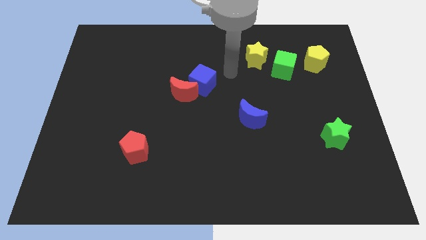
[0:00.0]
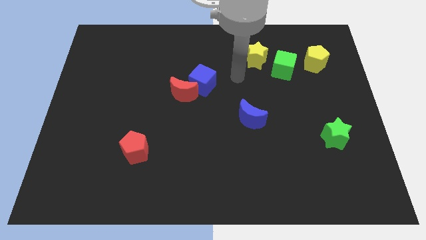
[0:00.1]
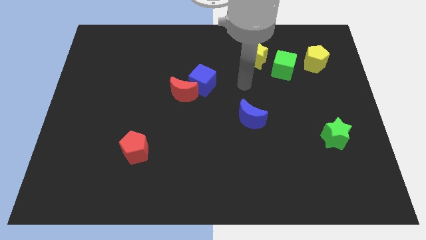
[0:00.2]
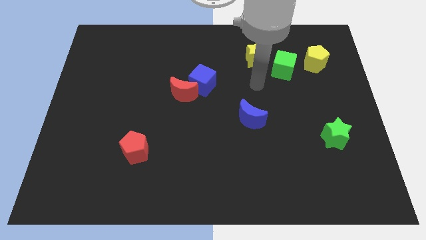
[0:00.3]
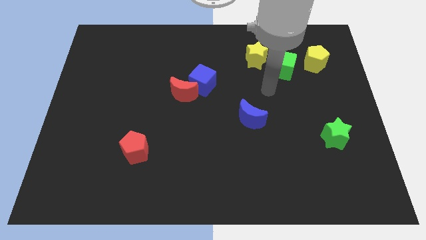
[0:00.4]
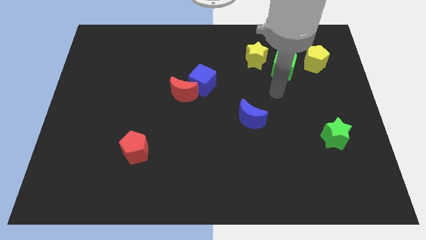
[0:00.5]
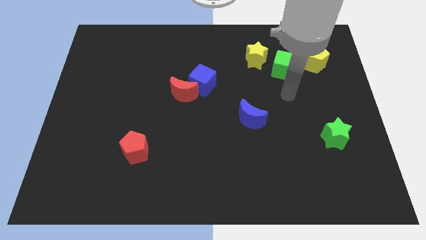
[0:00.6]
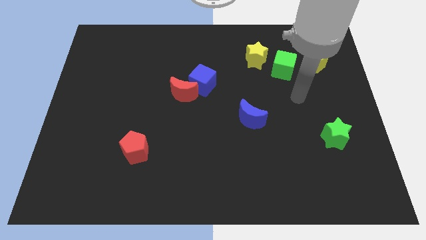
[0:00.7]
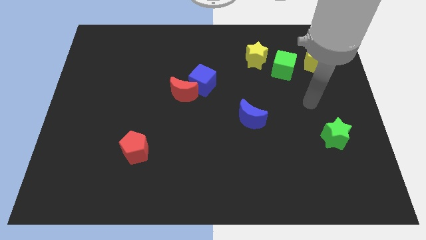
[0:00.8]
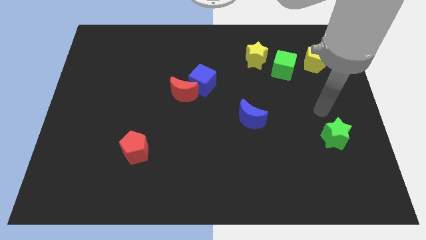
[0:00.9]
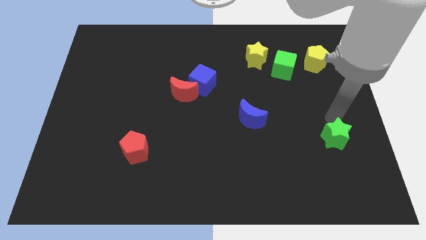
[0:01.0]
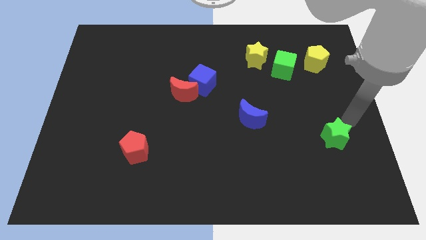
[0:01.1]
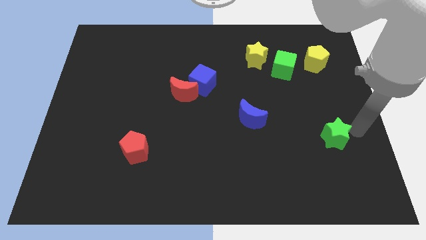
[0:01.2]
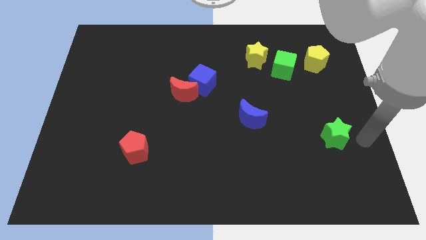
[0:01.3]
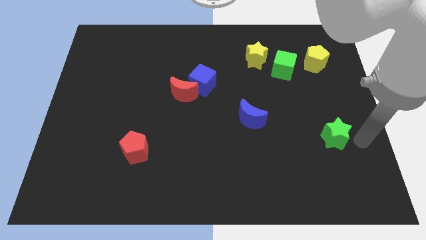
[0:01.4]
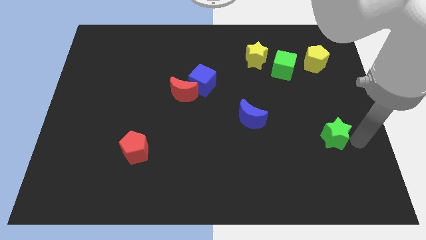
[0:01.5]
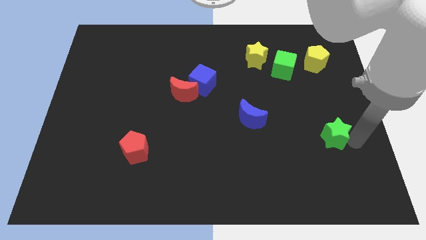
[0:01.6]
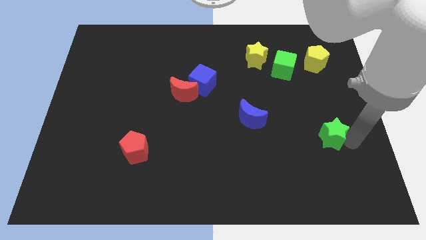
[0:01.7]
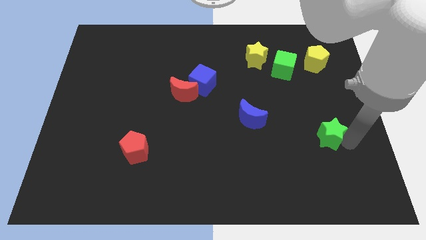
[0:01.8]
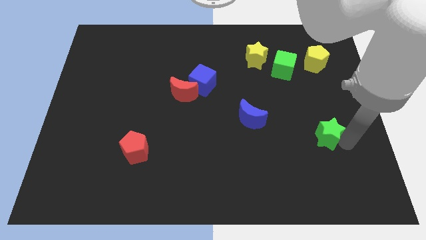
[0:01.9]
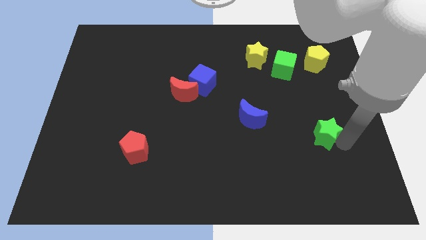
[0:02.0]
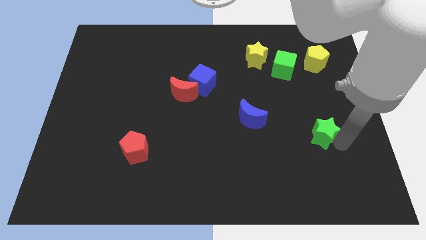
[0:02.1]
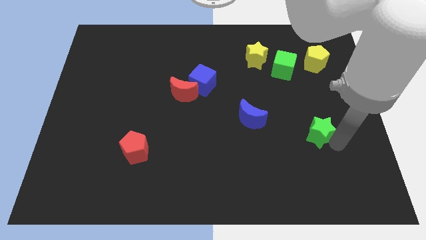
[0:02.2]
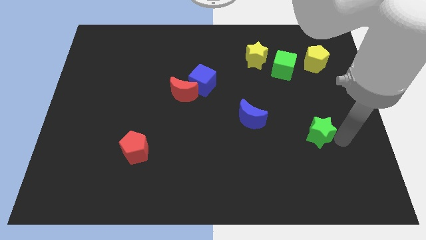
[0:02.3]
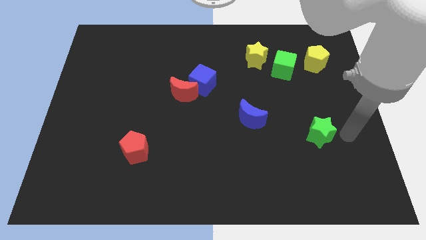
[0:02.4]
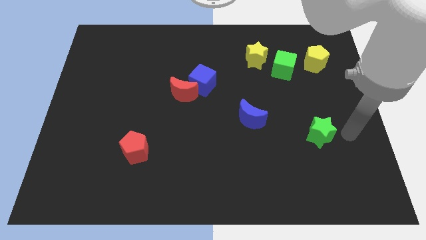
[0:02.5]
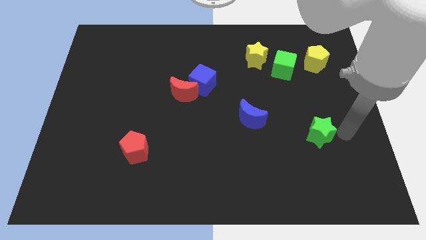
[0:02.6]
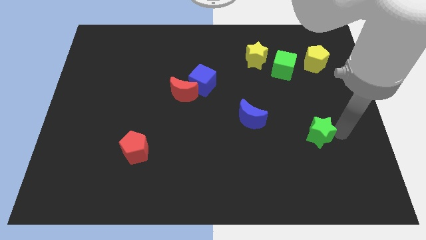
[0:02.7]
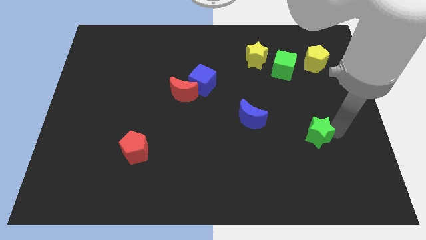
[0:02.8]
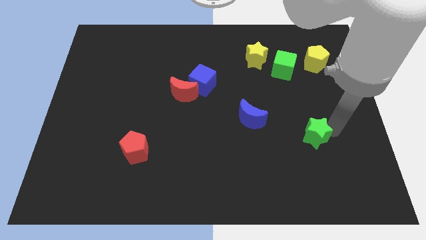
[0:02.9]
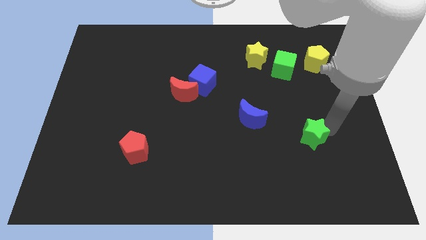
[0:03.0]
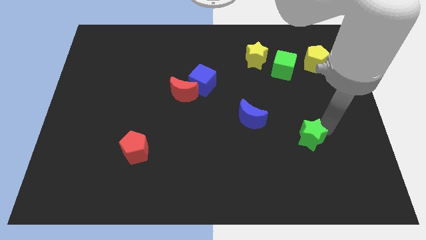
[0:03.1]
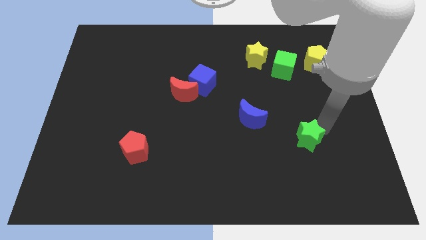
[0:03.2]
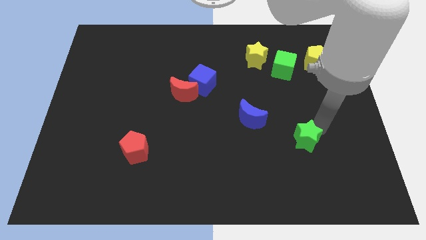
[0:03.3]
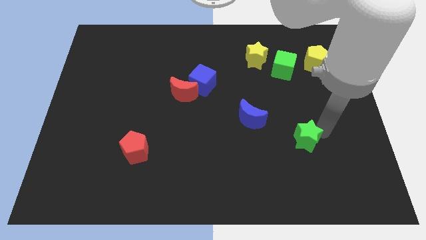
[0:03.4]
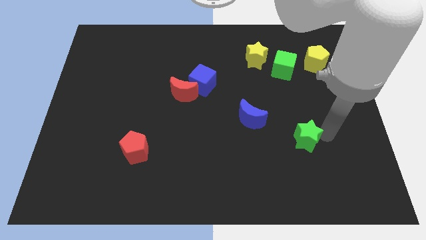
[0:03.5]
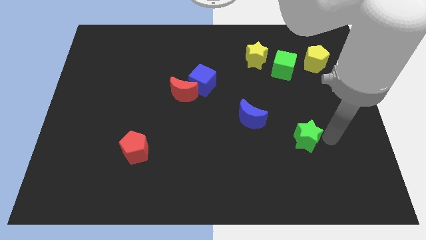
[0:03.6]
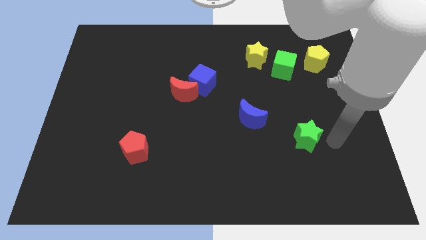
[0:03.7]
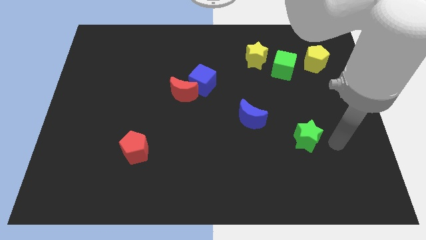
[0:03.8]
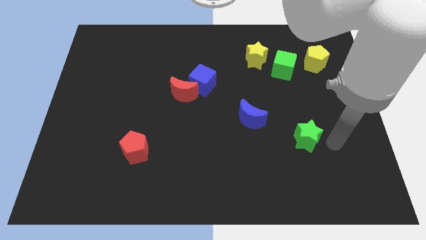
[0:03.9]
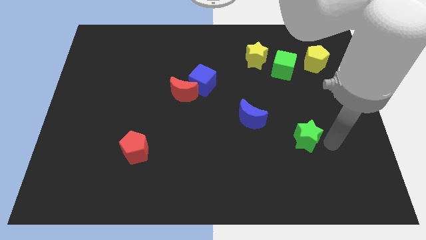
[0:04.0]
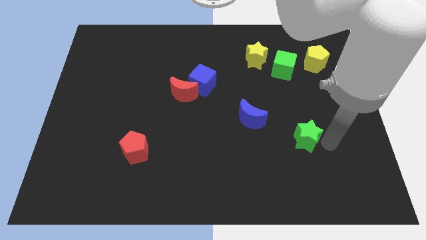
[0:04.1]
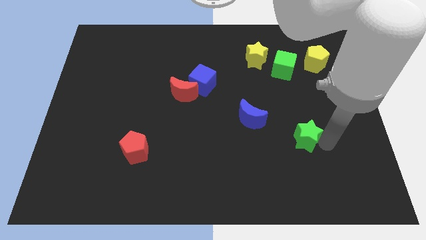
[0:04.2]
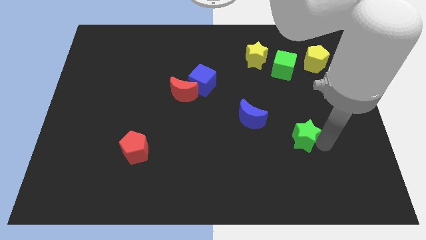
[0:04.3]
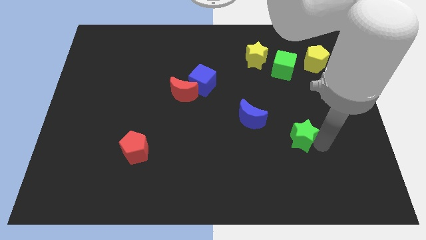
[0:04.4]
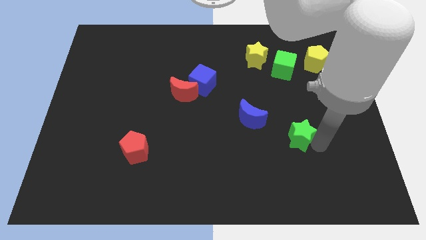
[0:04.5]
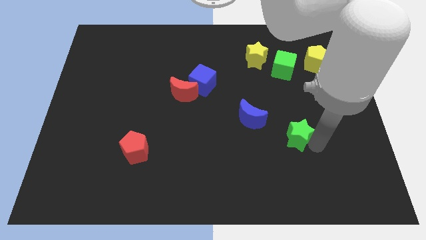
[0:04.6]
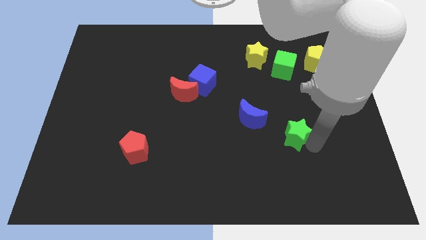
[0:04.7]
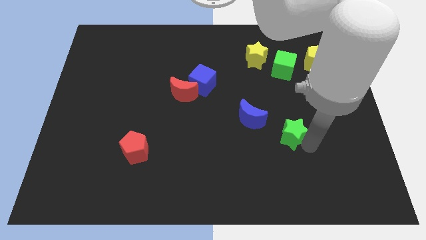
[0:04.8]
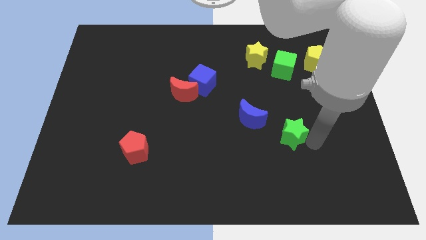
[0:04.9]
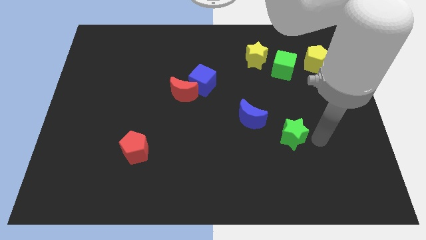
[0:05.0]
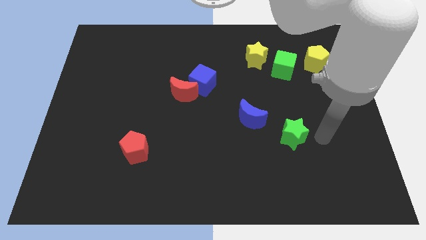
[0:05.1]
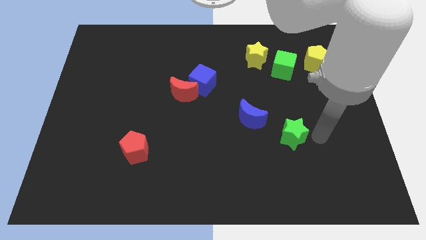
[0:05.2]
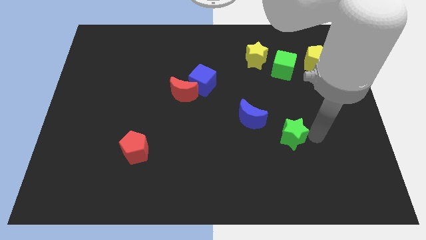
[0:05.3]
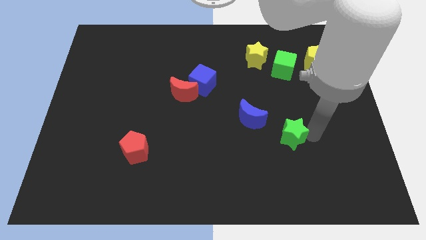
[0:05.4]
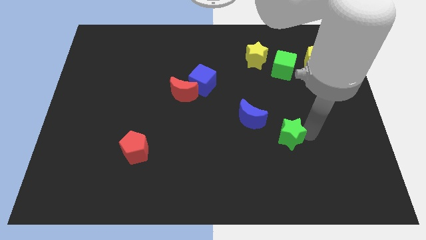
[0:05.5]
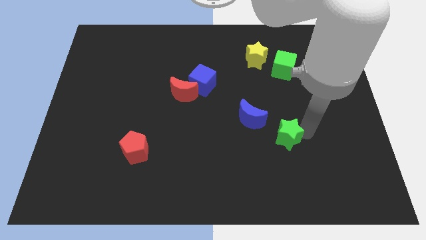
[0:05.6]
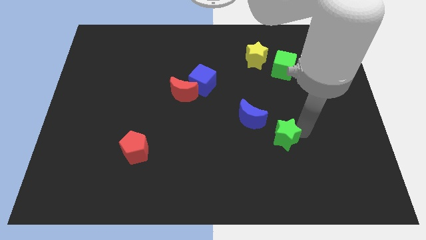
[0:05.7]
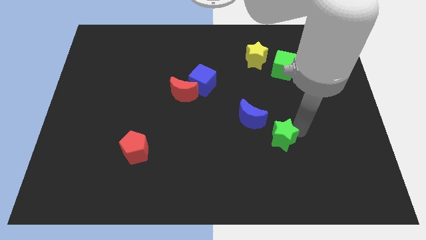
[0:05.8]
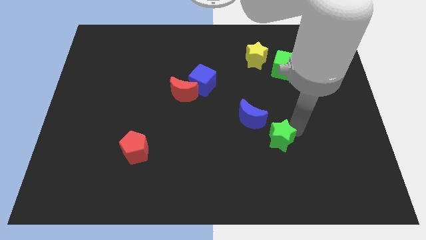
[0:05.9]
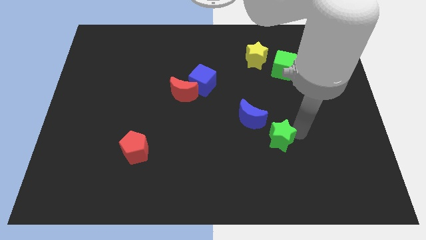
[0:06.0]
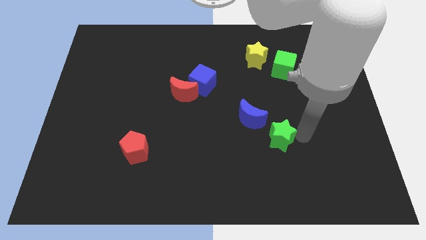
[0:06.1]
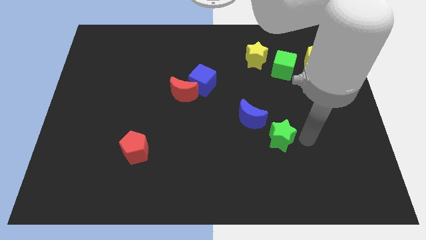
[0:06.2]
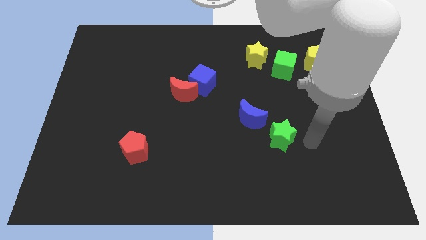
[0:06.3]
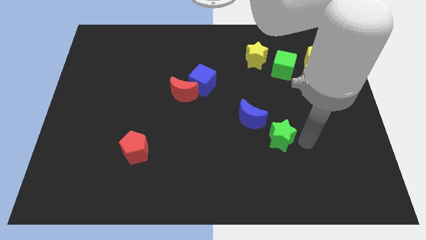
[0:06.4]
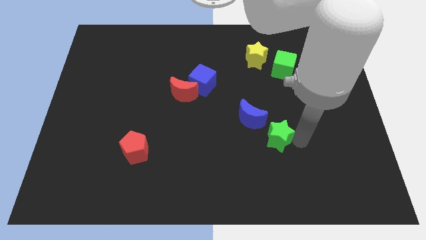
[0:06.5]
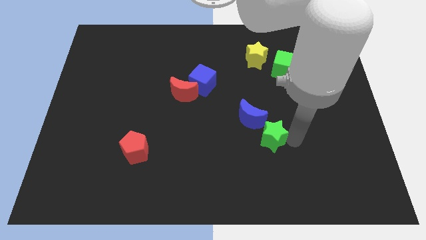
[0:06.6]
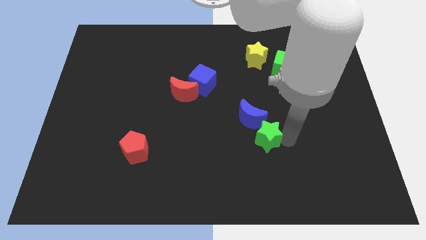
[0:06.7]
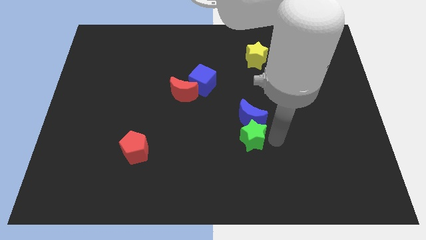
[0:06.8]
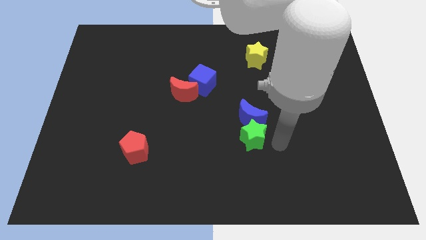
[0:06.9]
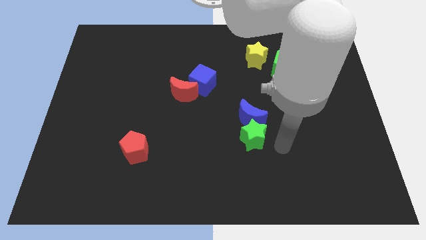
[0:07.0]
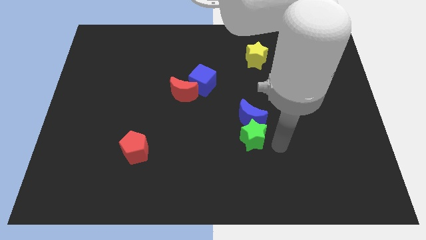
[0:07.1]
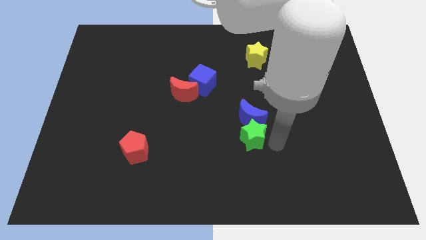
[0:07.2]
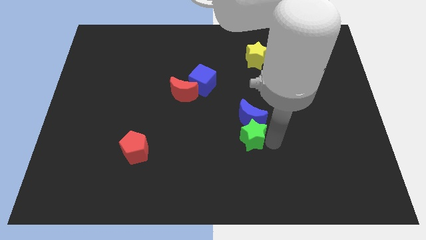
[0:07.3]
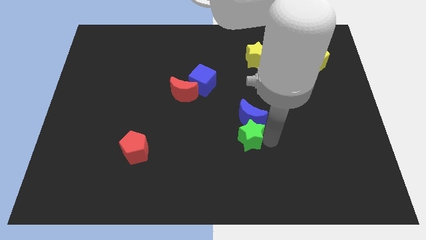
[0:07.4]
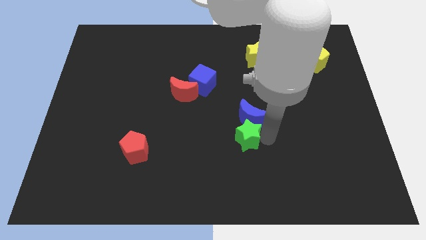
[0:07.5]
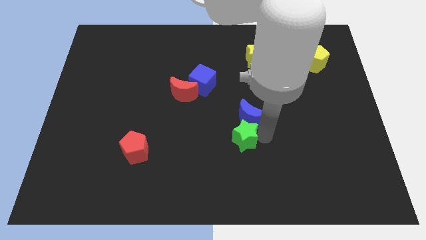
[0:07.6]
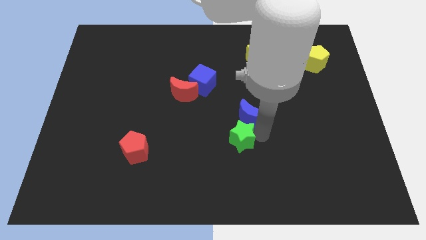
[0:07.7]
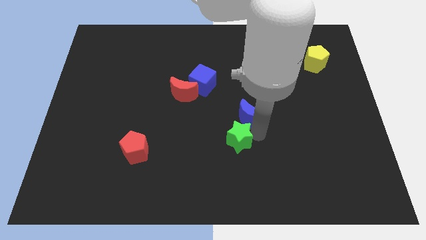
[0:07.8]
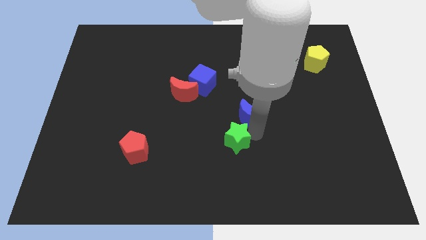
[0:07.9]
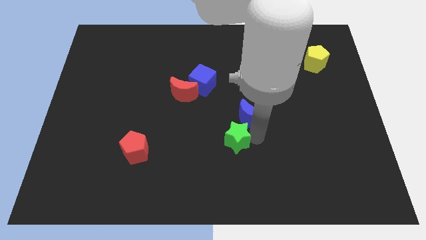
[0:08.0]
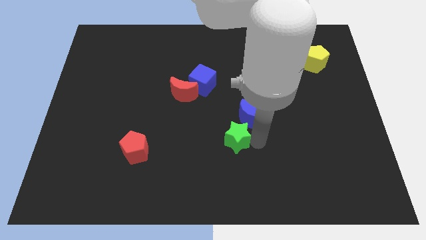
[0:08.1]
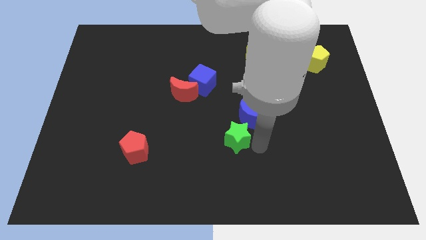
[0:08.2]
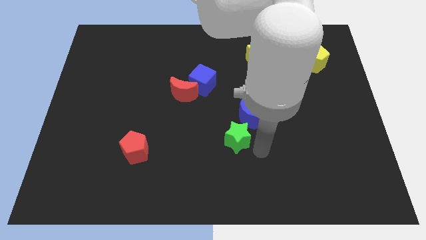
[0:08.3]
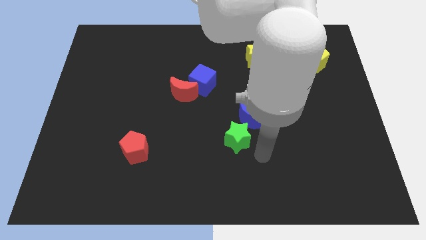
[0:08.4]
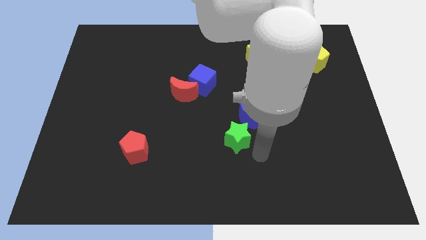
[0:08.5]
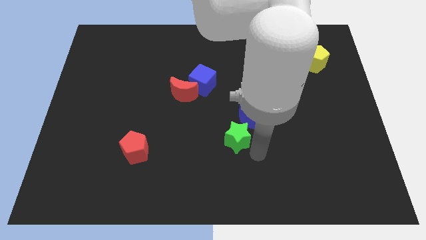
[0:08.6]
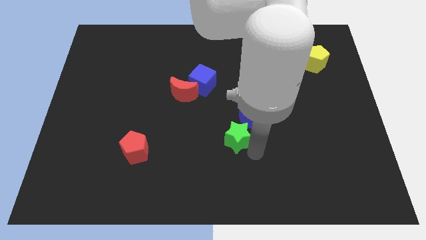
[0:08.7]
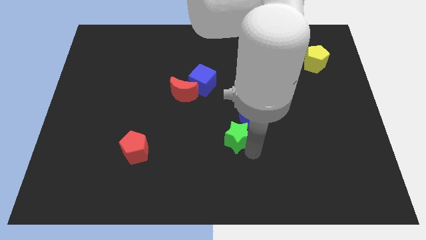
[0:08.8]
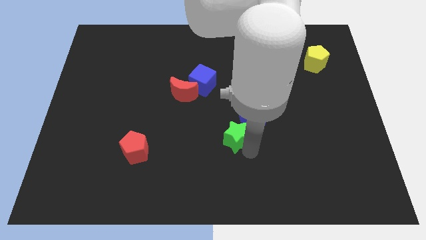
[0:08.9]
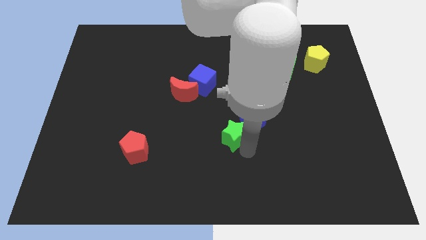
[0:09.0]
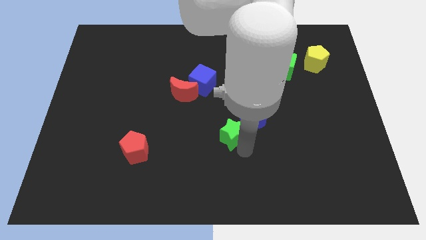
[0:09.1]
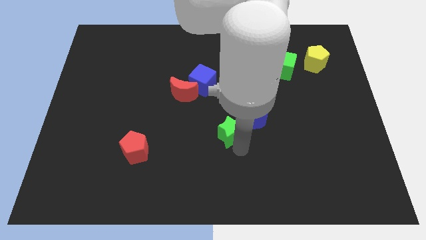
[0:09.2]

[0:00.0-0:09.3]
slide the green star left of the blue moon
